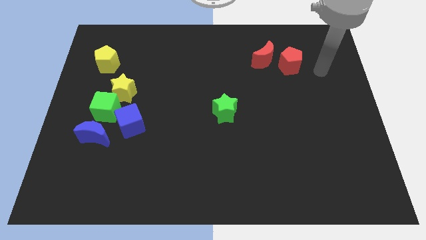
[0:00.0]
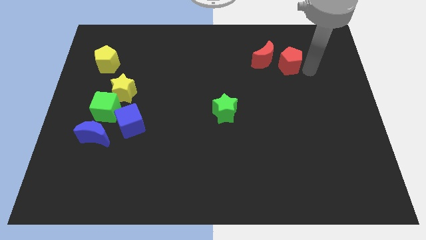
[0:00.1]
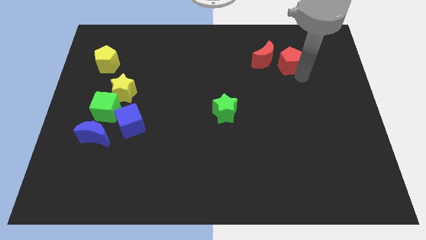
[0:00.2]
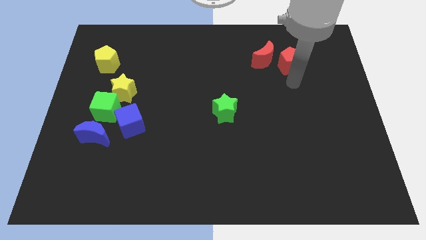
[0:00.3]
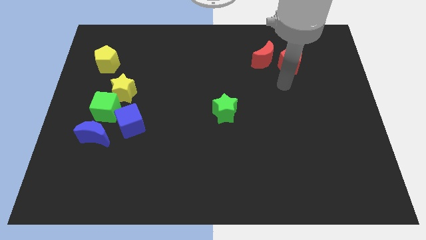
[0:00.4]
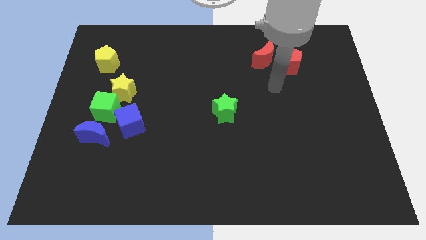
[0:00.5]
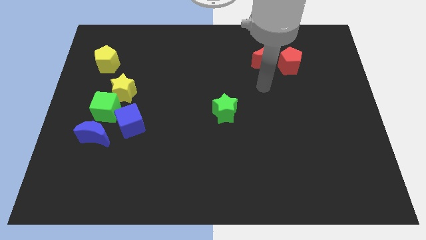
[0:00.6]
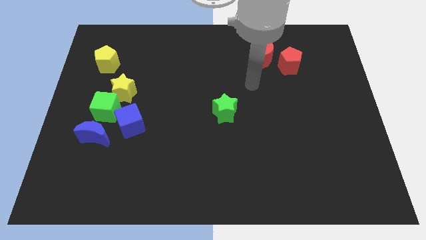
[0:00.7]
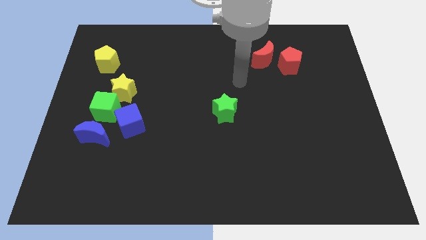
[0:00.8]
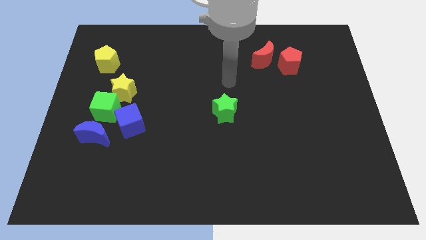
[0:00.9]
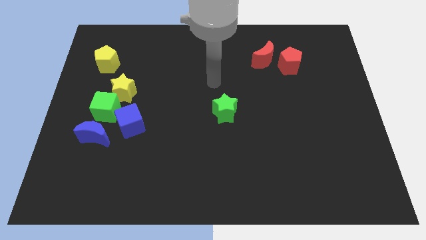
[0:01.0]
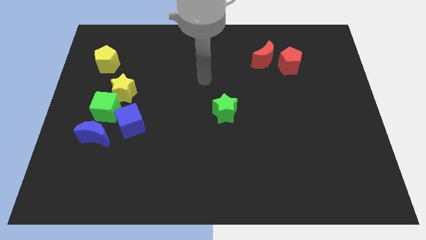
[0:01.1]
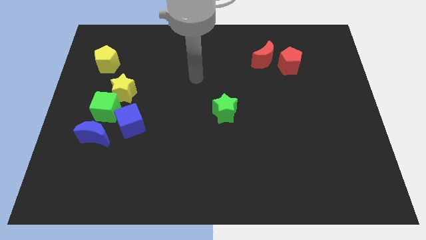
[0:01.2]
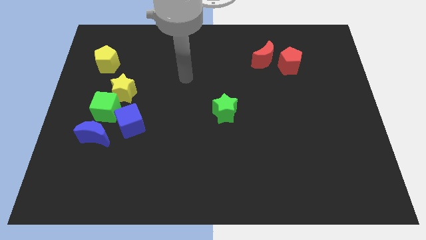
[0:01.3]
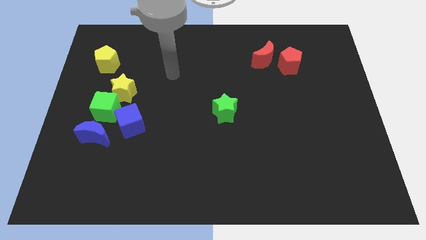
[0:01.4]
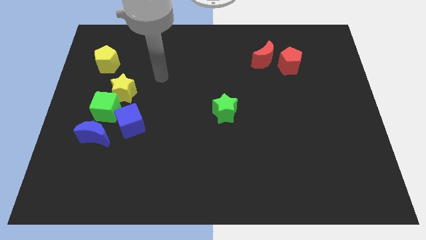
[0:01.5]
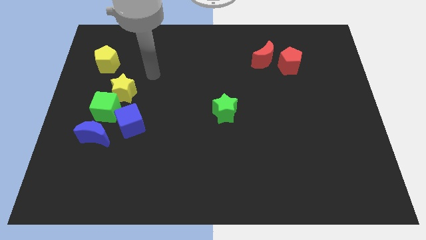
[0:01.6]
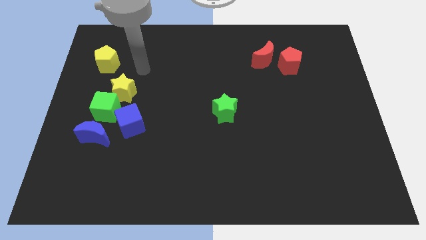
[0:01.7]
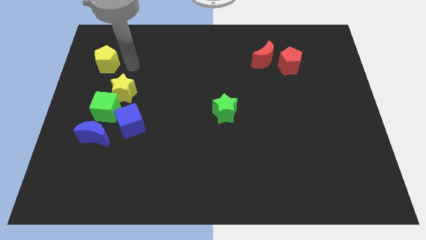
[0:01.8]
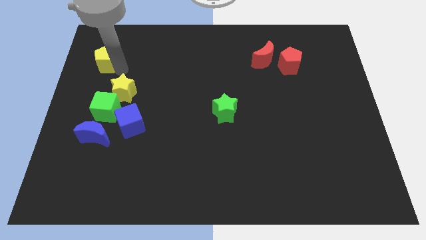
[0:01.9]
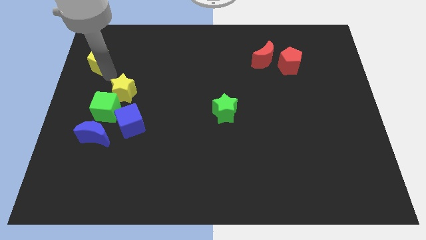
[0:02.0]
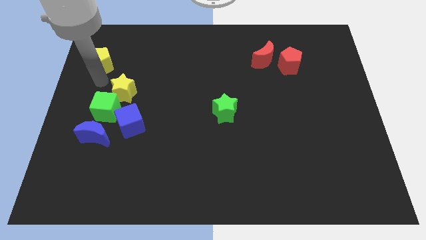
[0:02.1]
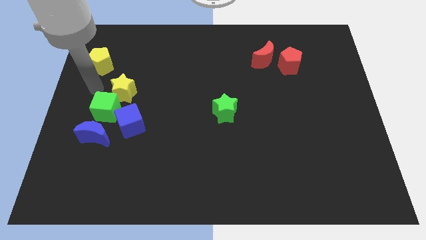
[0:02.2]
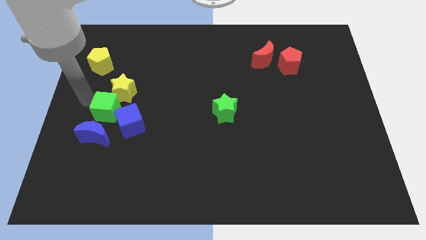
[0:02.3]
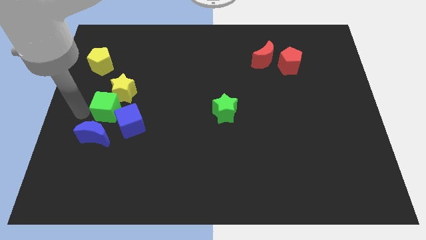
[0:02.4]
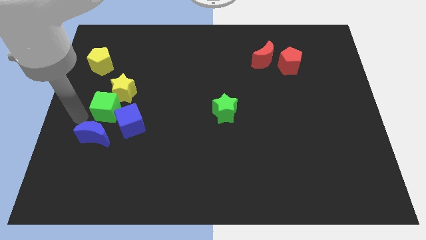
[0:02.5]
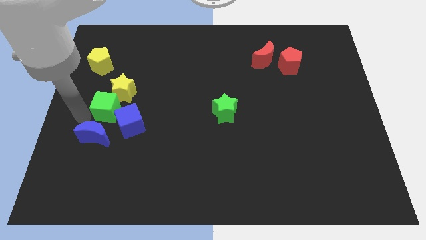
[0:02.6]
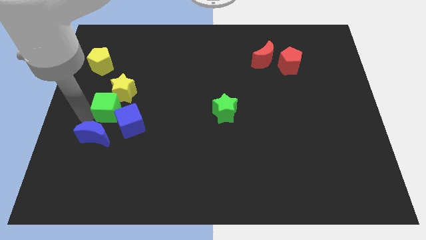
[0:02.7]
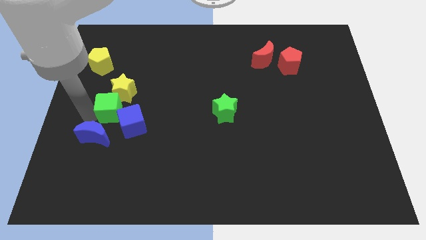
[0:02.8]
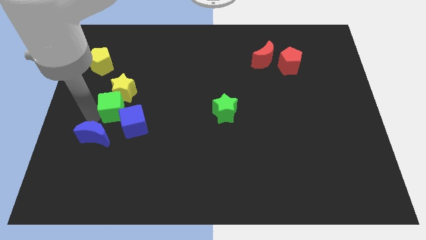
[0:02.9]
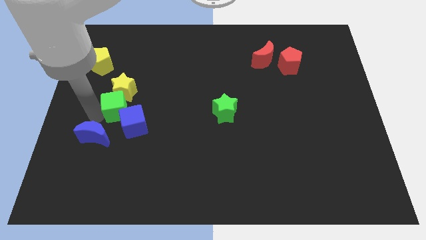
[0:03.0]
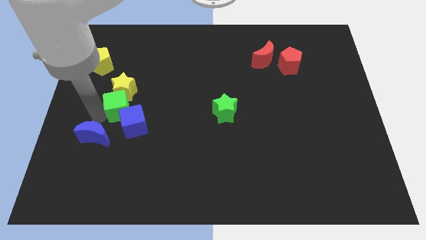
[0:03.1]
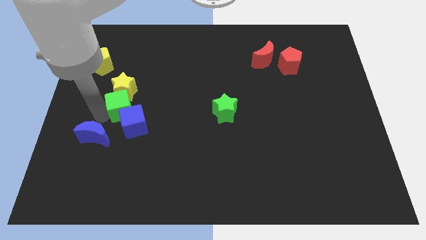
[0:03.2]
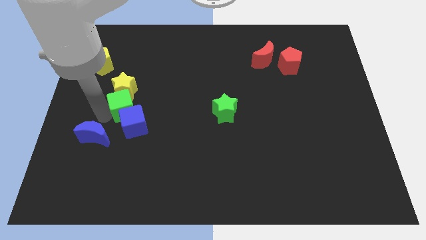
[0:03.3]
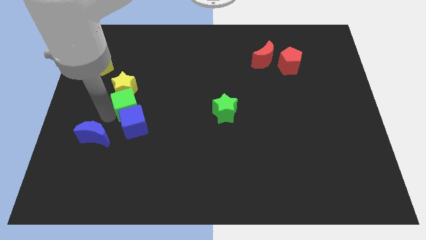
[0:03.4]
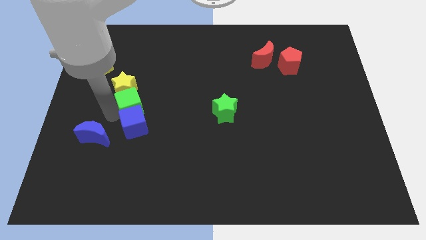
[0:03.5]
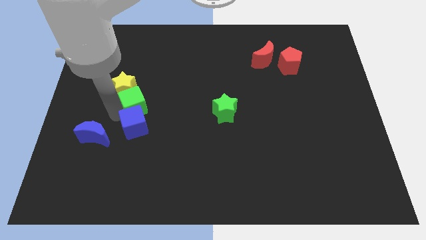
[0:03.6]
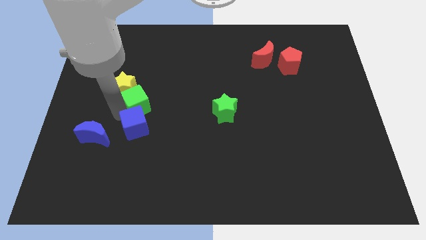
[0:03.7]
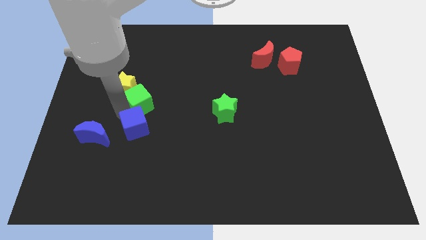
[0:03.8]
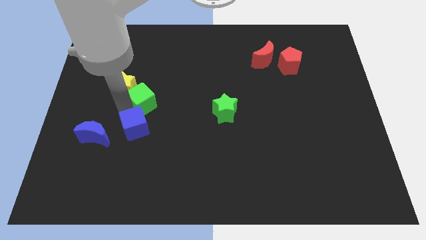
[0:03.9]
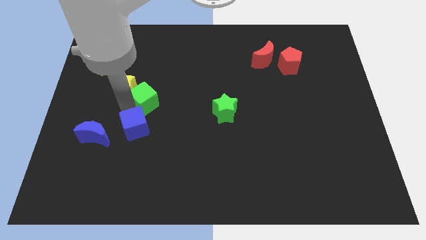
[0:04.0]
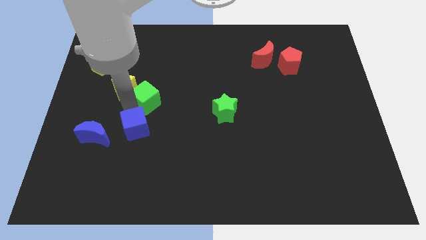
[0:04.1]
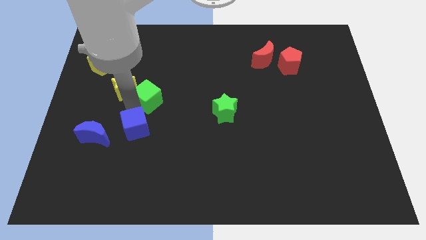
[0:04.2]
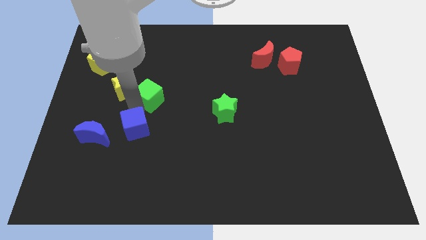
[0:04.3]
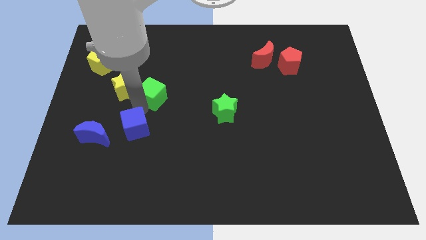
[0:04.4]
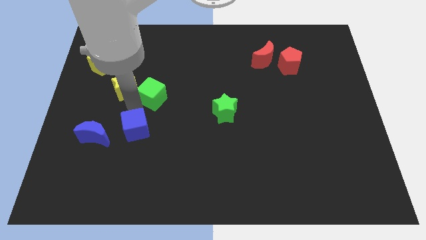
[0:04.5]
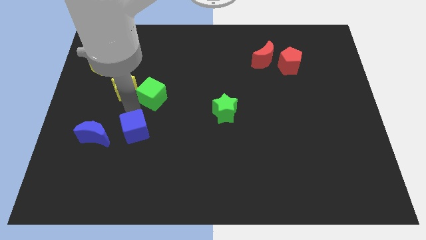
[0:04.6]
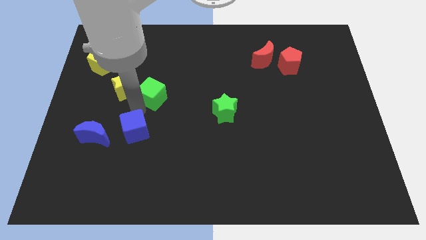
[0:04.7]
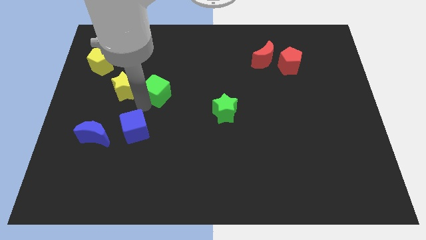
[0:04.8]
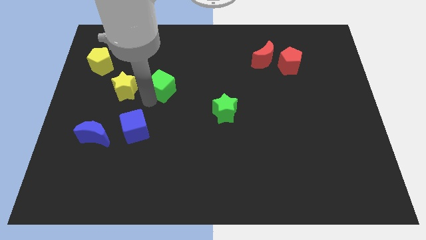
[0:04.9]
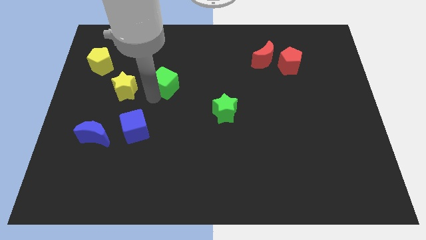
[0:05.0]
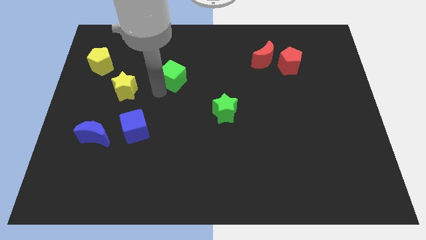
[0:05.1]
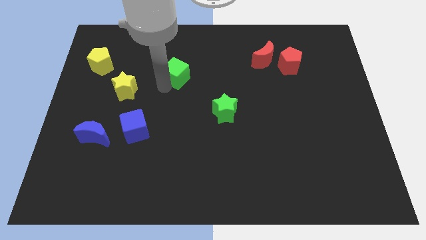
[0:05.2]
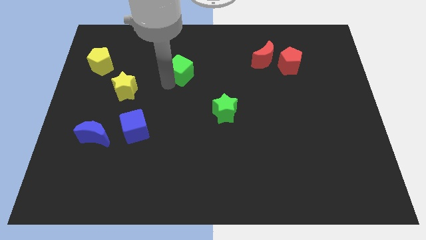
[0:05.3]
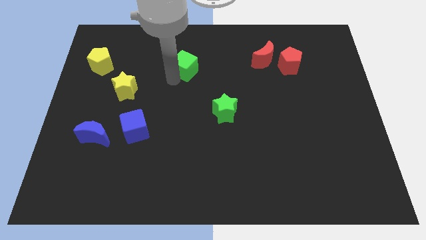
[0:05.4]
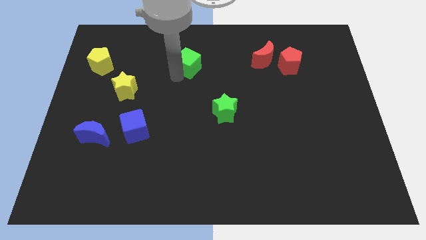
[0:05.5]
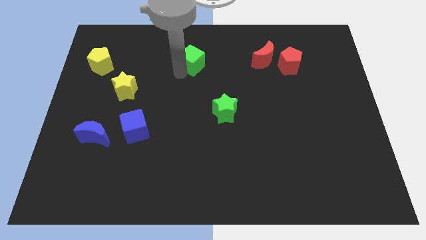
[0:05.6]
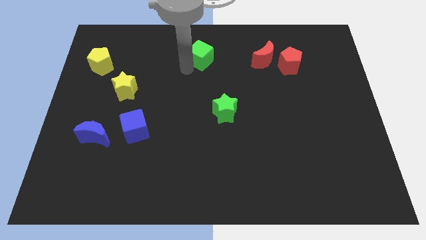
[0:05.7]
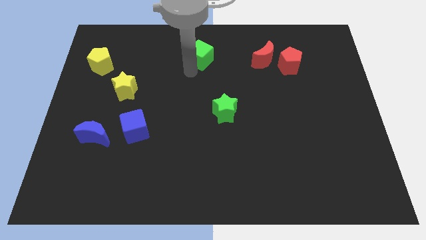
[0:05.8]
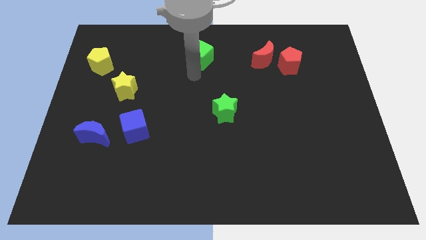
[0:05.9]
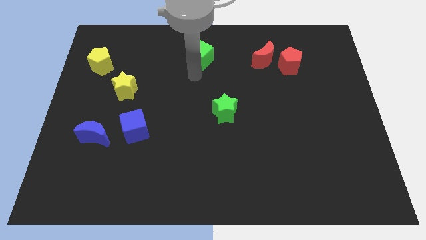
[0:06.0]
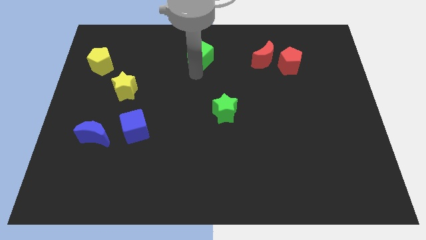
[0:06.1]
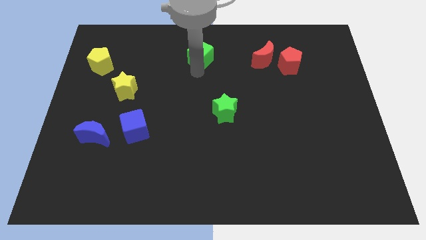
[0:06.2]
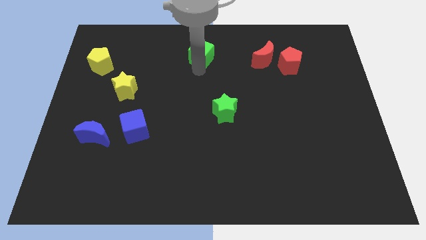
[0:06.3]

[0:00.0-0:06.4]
slide the green cube to the towards your base
